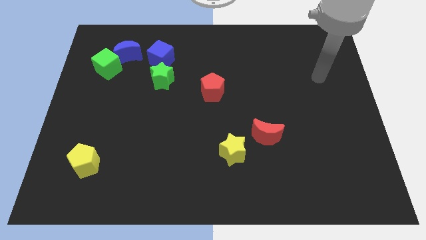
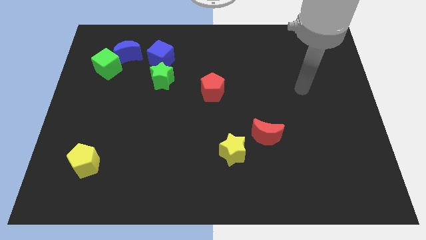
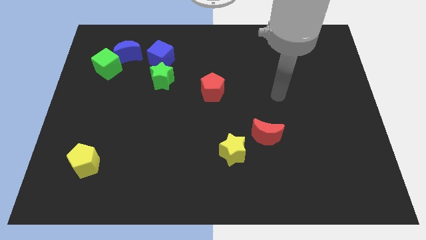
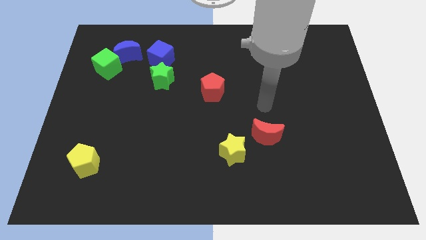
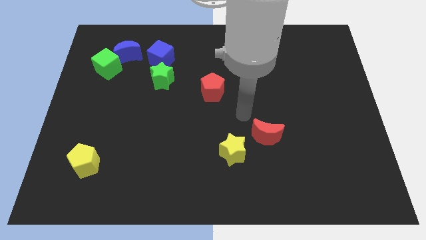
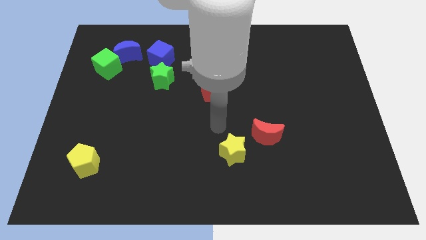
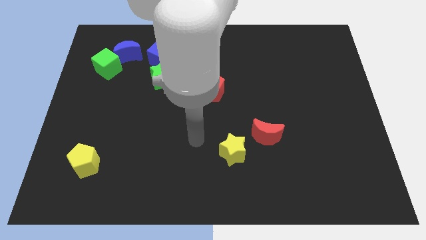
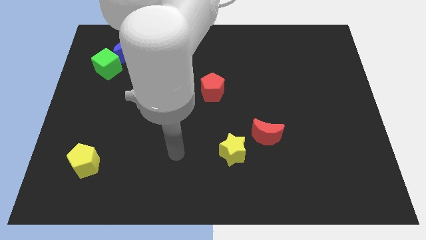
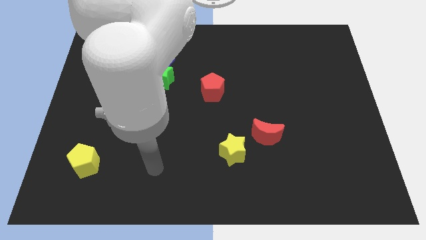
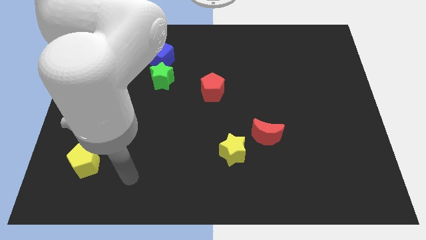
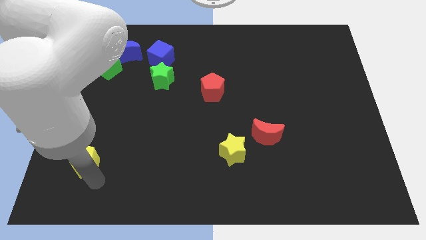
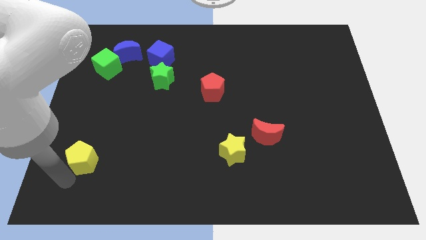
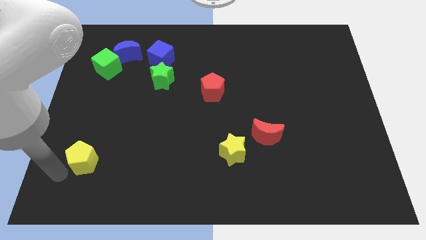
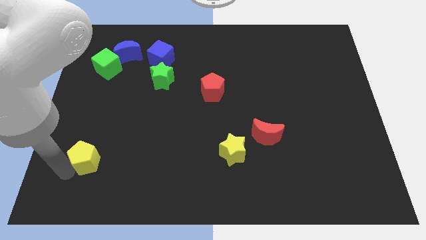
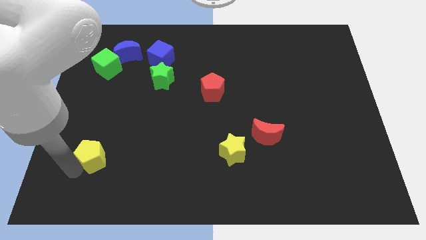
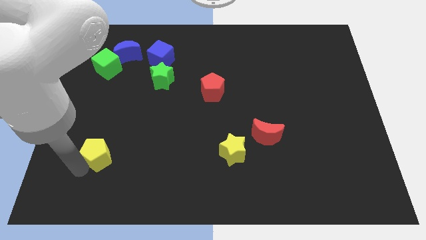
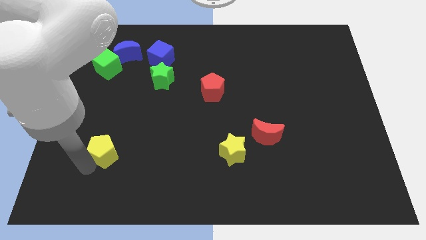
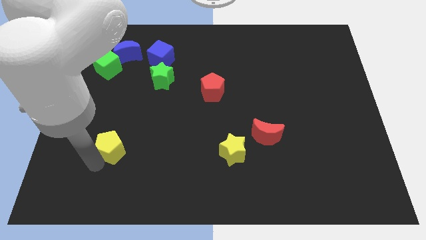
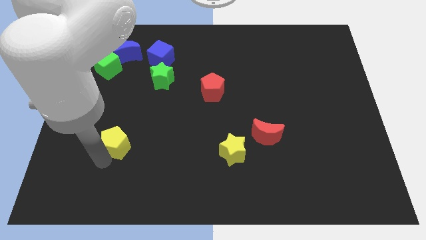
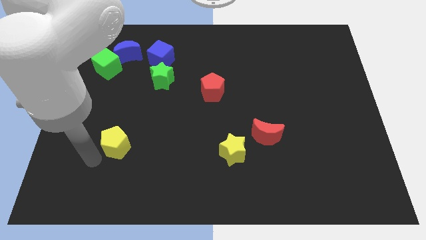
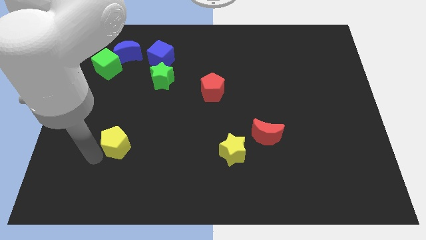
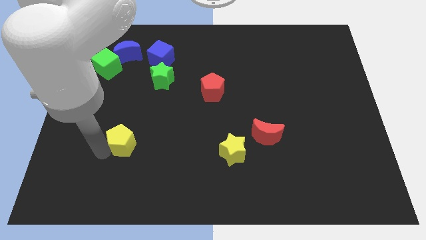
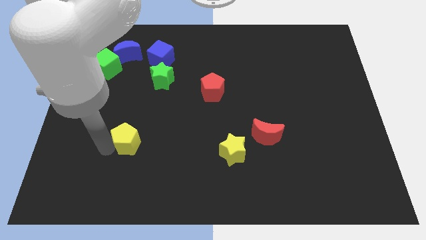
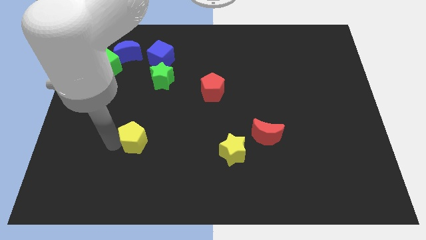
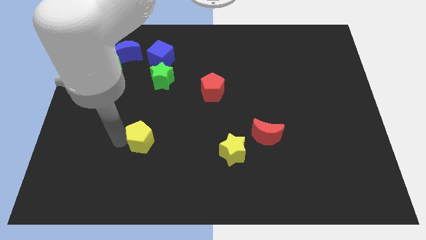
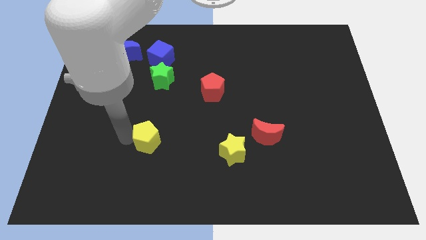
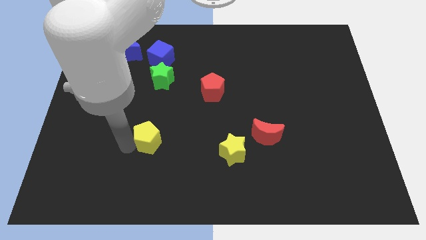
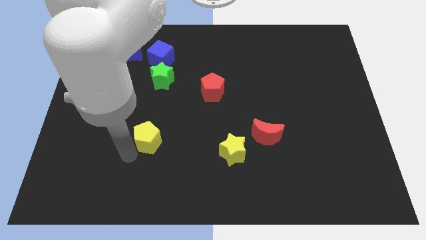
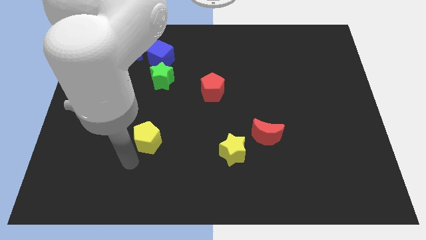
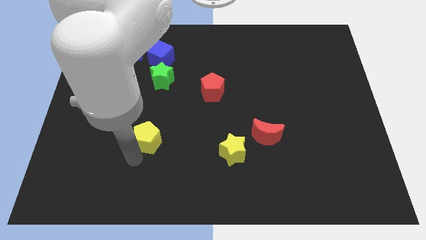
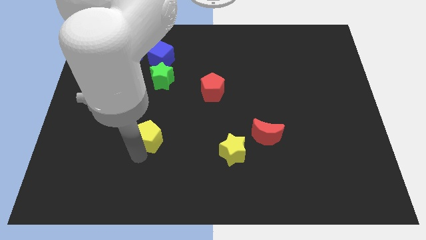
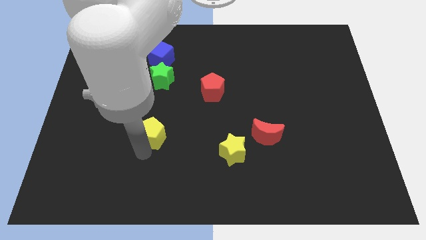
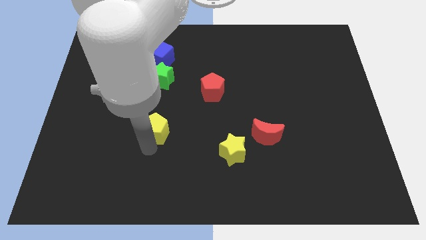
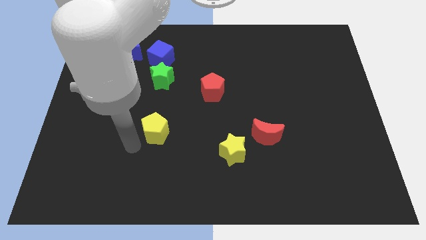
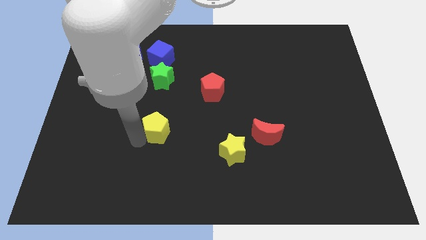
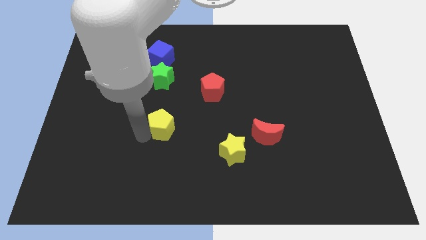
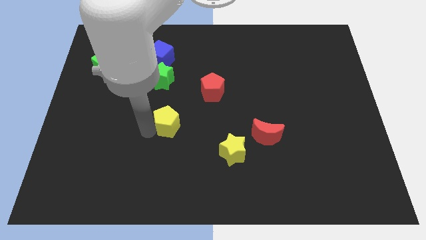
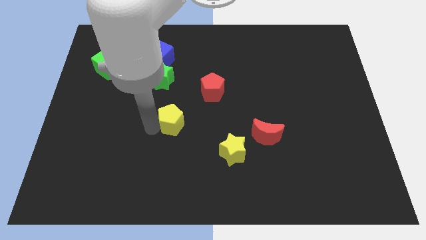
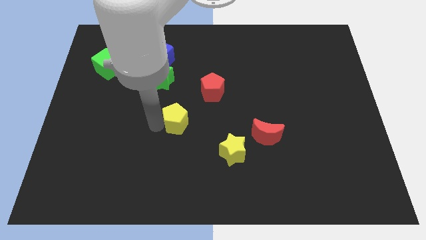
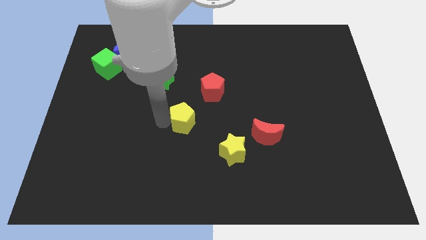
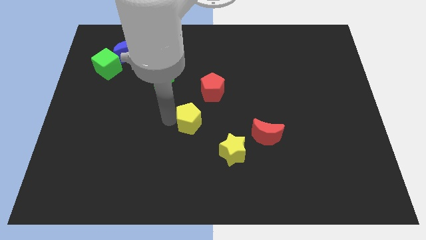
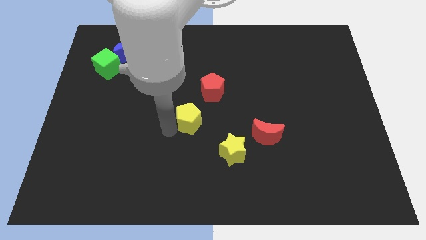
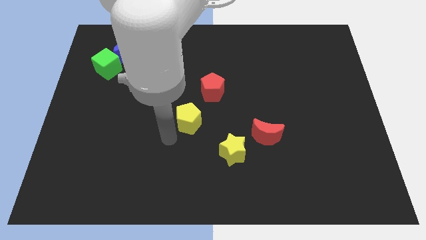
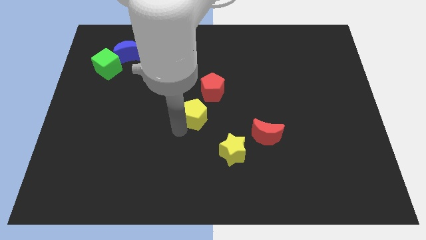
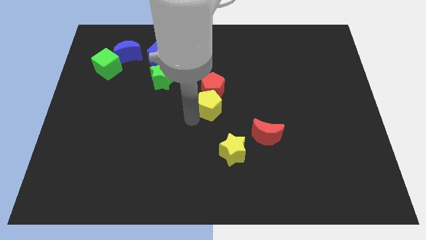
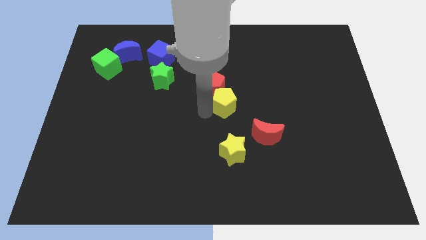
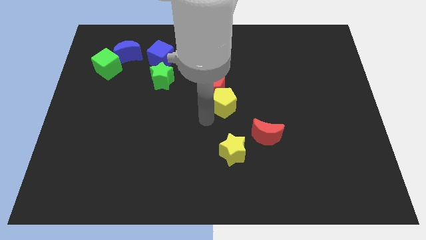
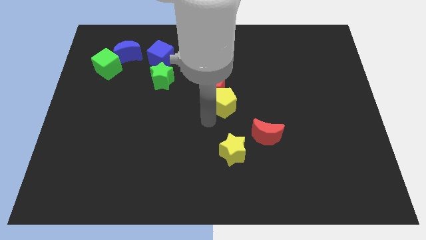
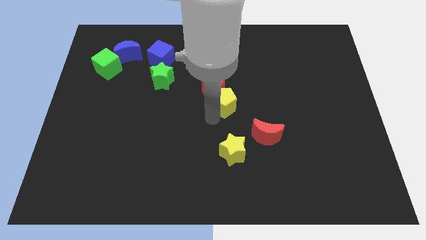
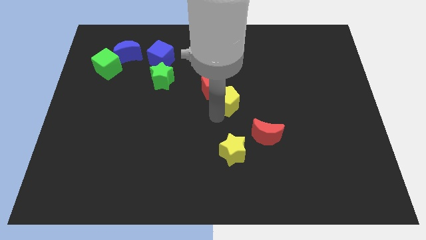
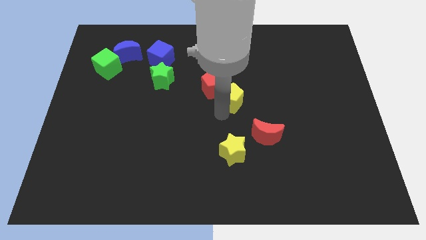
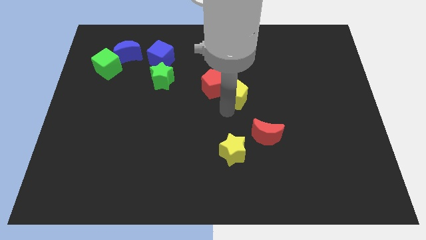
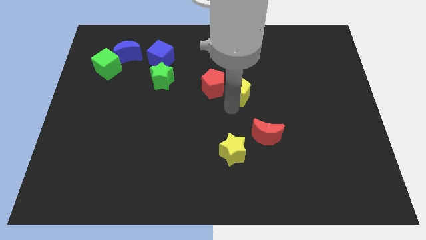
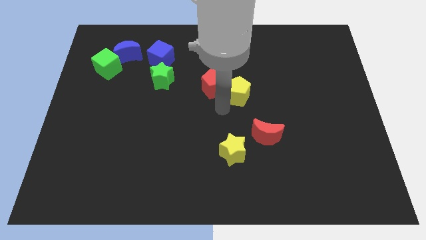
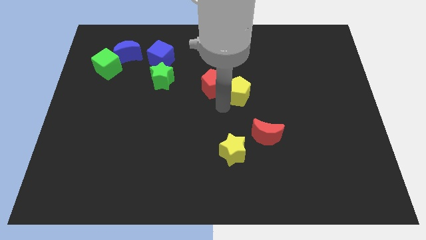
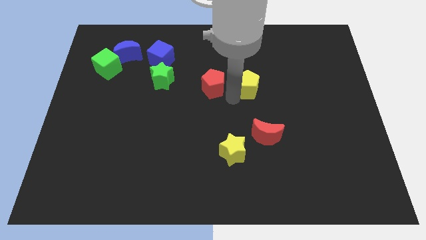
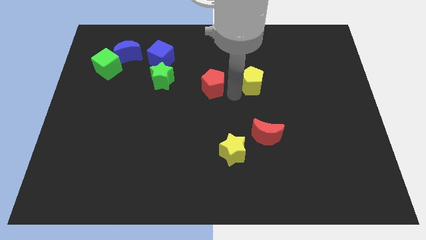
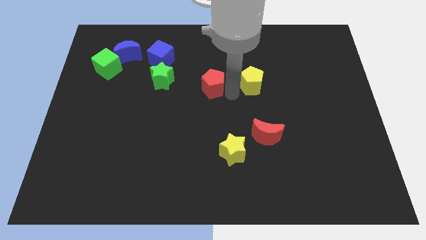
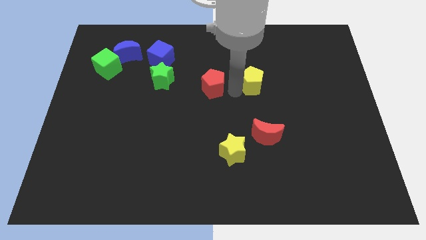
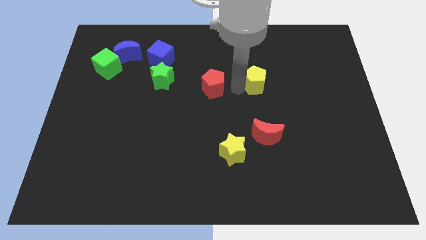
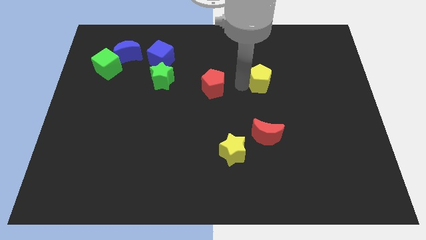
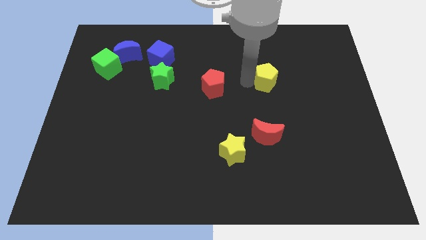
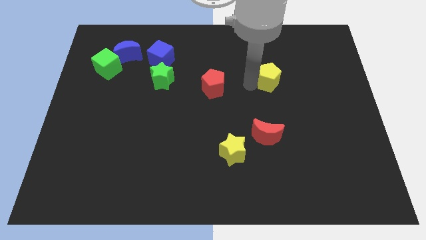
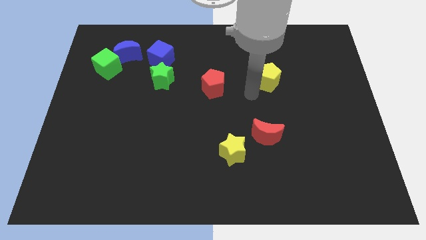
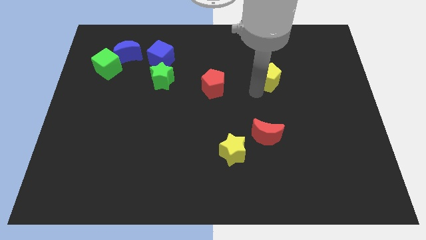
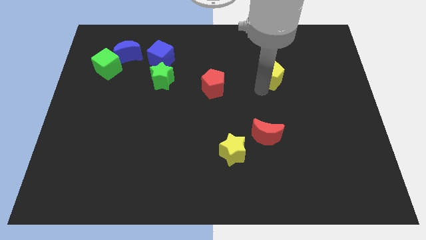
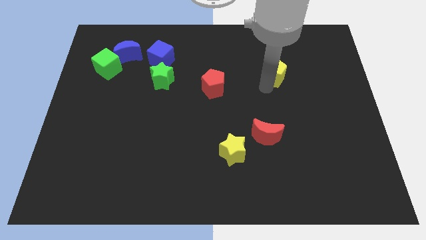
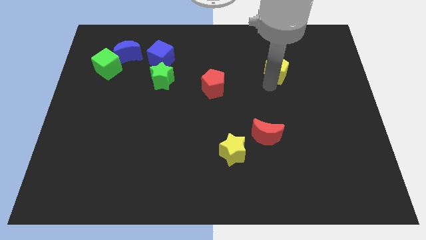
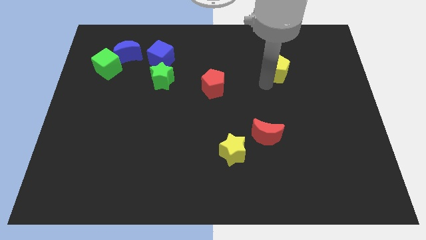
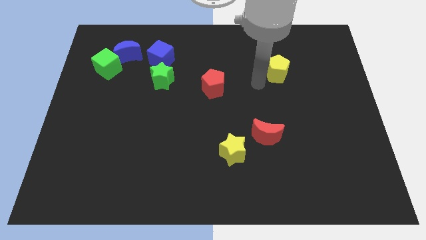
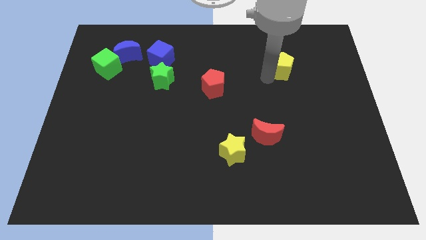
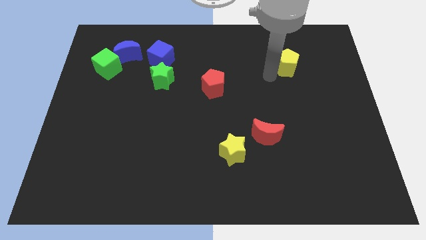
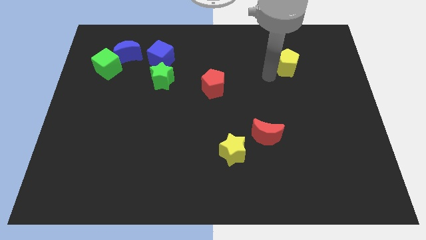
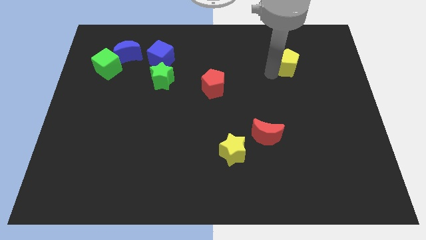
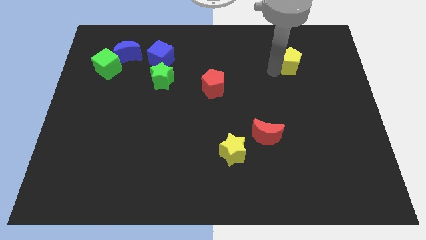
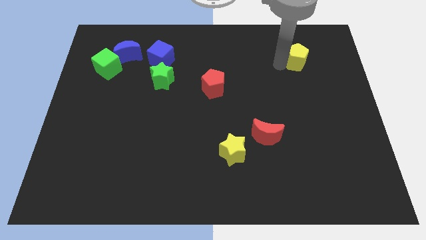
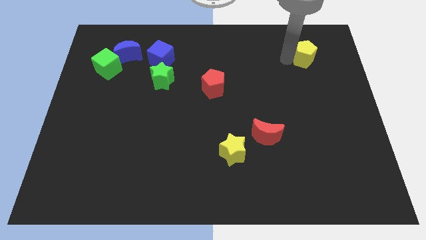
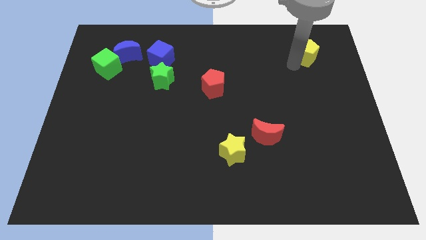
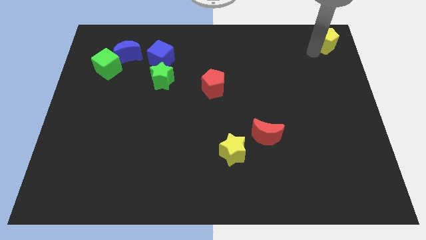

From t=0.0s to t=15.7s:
put the yellow pentagon to the upper right corner
